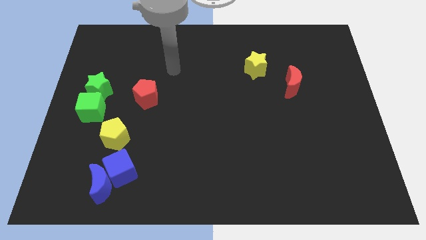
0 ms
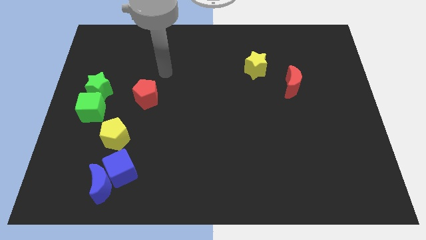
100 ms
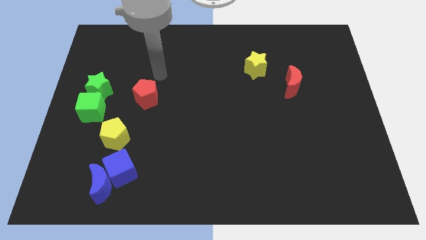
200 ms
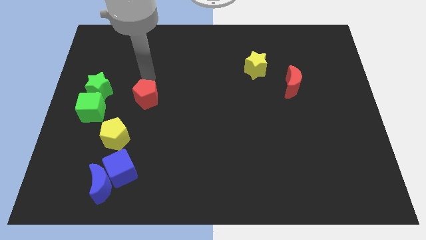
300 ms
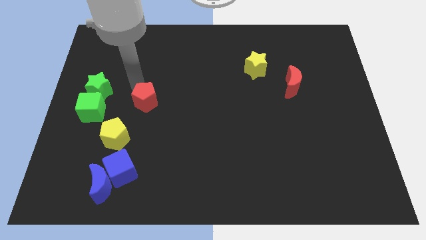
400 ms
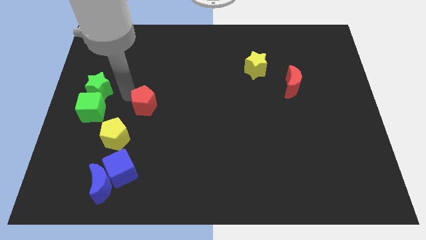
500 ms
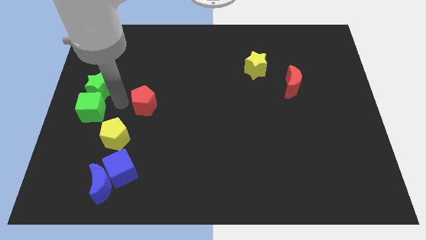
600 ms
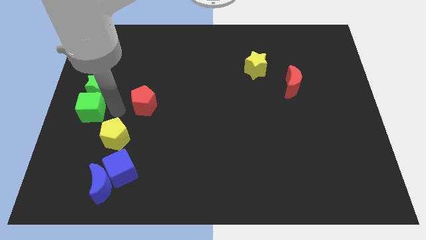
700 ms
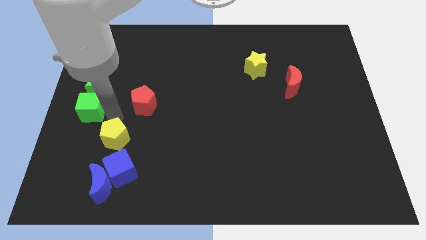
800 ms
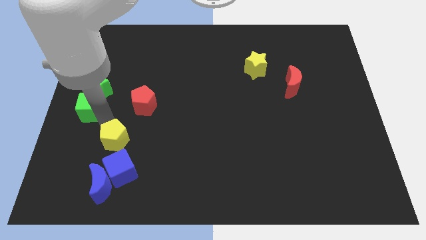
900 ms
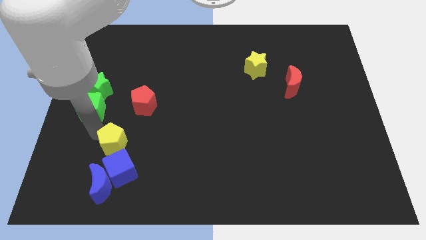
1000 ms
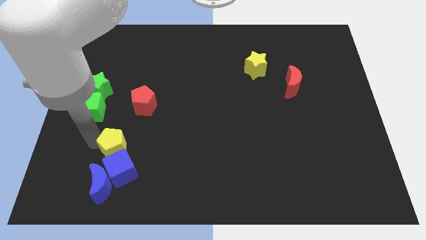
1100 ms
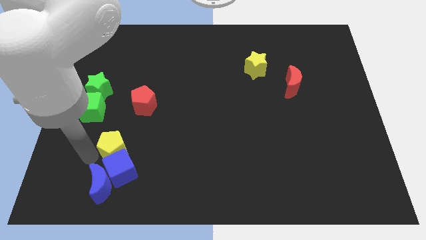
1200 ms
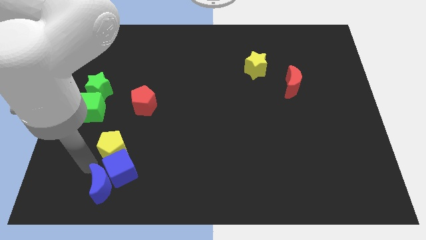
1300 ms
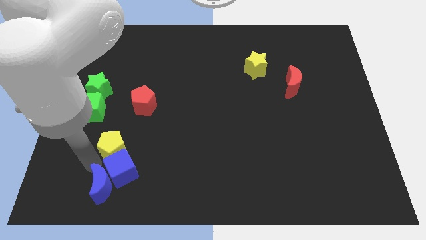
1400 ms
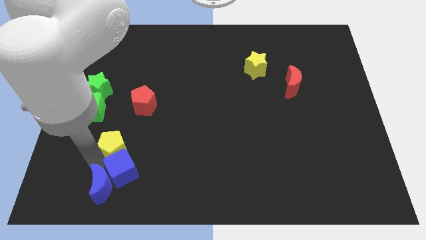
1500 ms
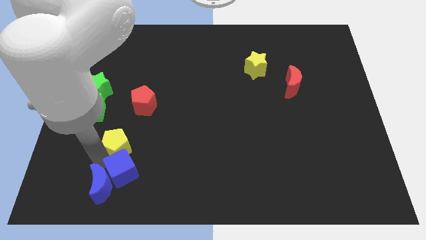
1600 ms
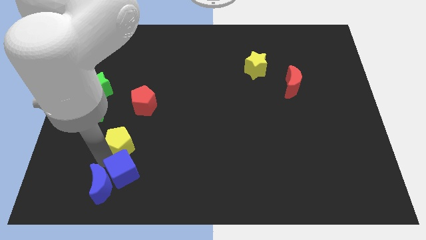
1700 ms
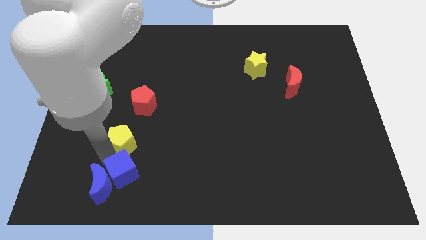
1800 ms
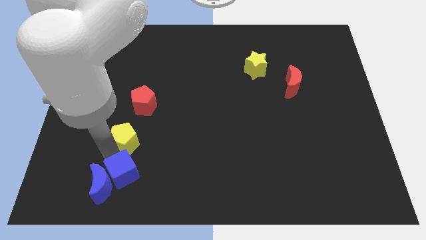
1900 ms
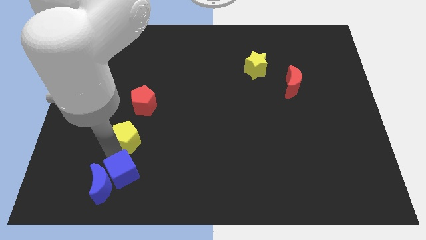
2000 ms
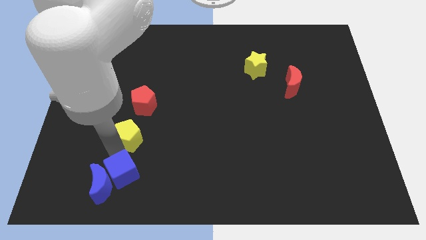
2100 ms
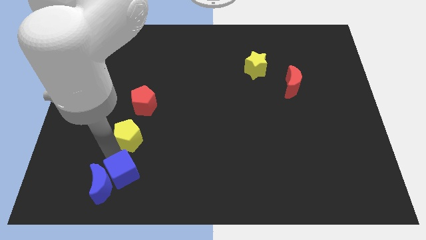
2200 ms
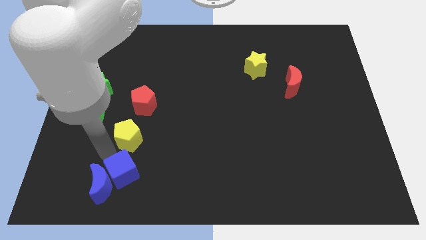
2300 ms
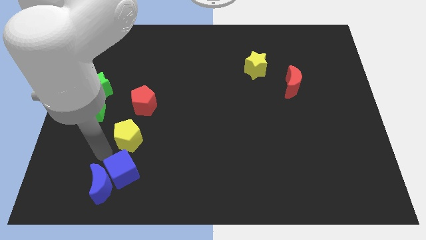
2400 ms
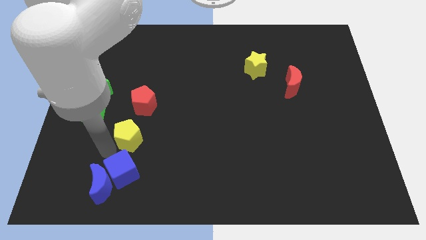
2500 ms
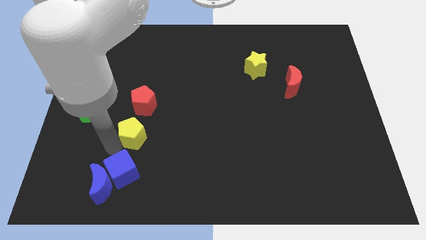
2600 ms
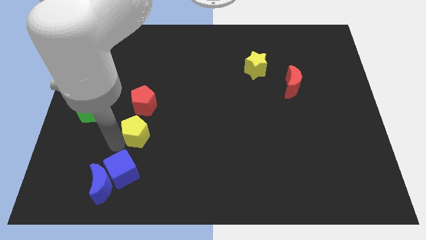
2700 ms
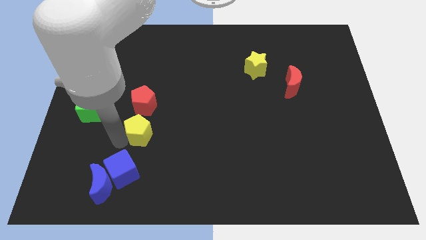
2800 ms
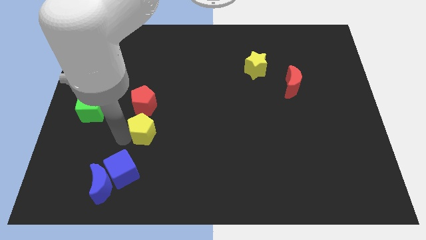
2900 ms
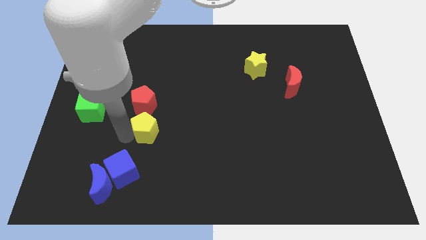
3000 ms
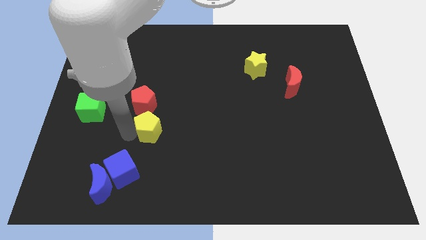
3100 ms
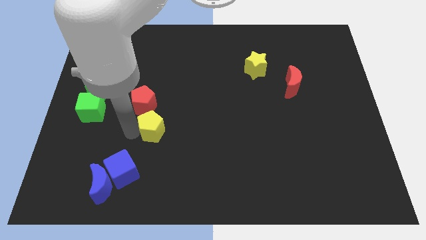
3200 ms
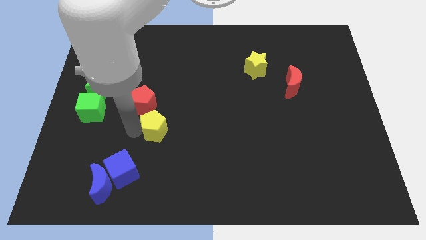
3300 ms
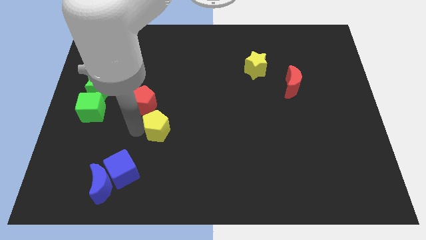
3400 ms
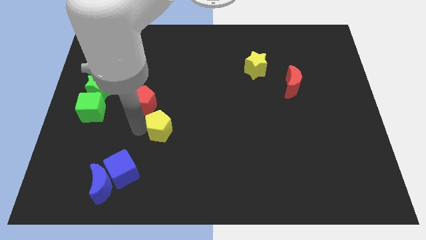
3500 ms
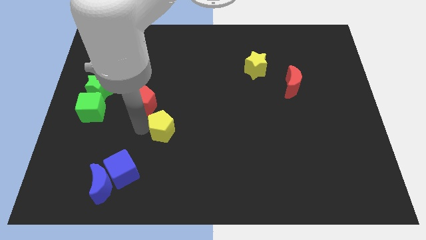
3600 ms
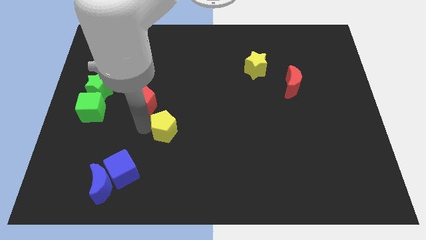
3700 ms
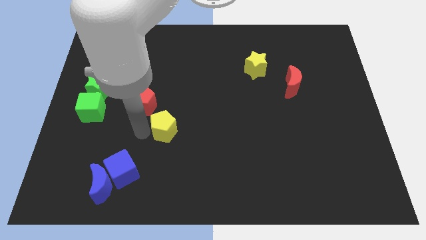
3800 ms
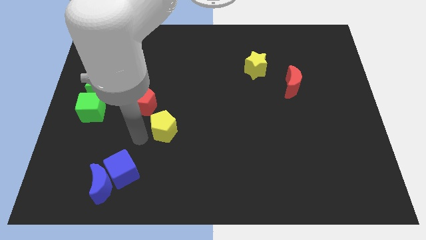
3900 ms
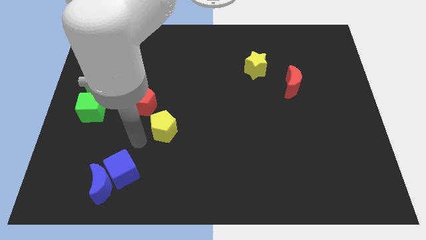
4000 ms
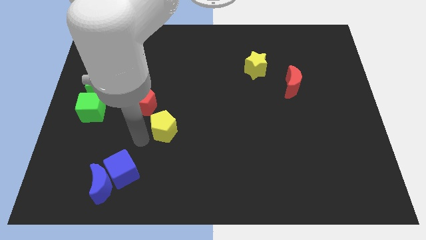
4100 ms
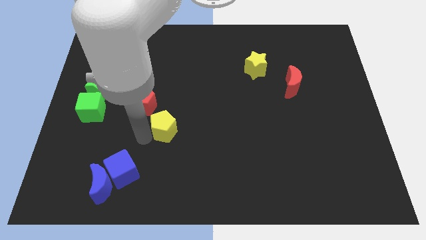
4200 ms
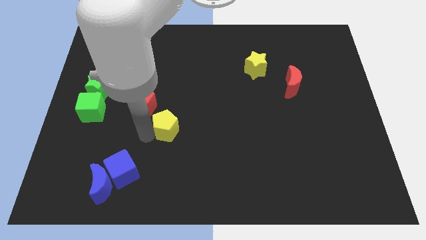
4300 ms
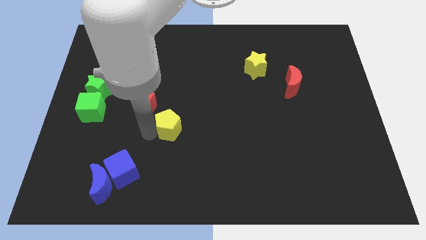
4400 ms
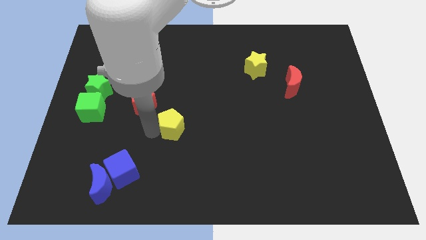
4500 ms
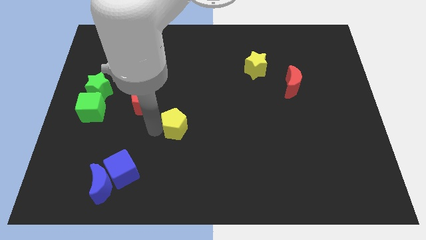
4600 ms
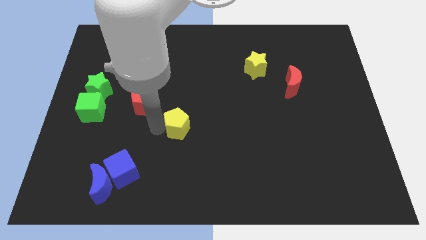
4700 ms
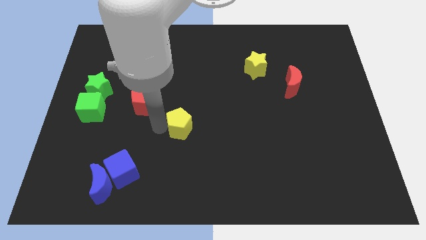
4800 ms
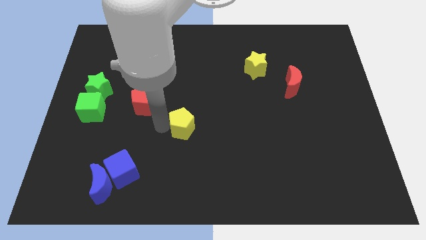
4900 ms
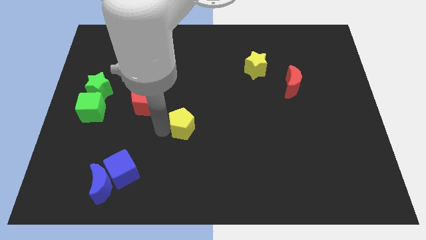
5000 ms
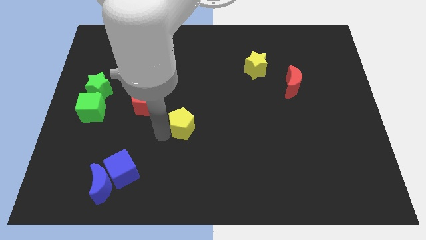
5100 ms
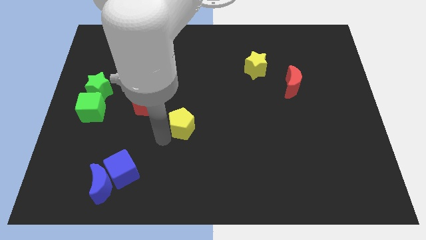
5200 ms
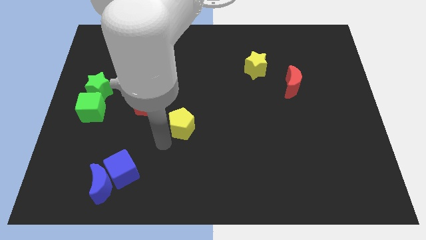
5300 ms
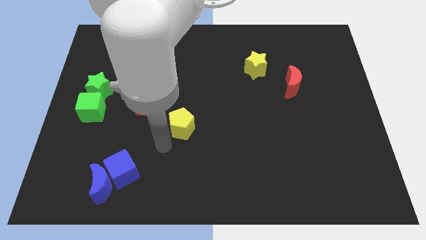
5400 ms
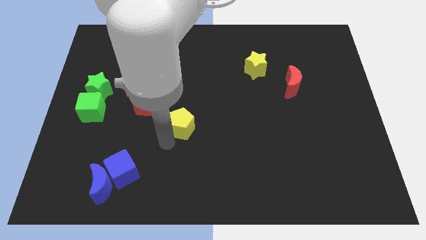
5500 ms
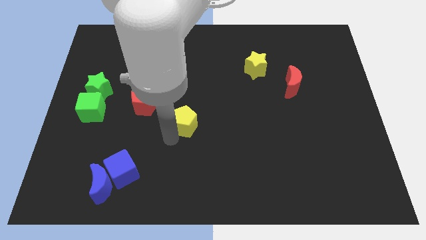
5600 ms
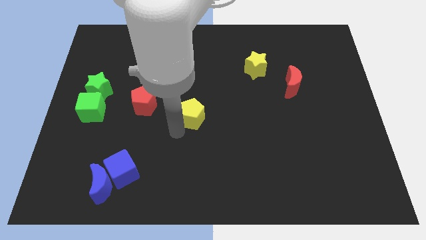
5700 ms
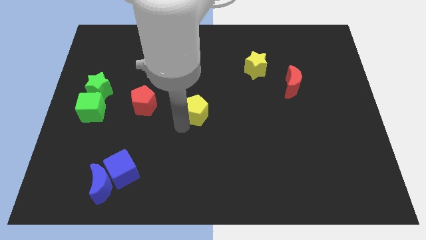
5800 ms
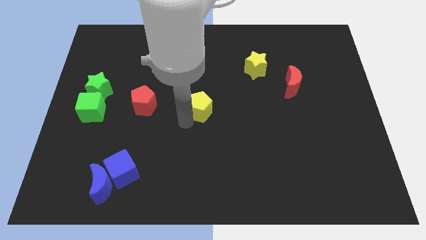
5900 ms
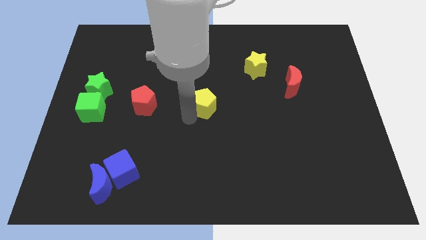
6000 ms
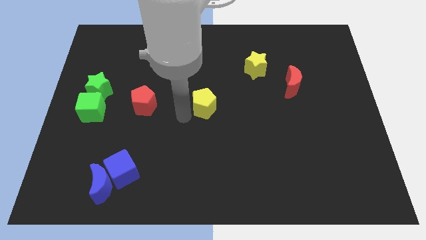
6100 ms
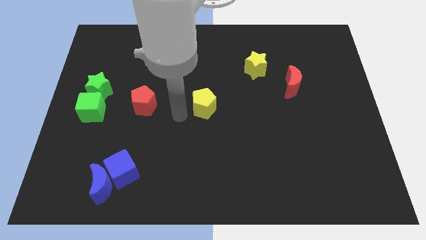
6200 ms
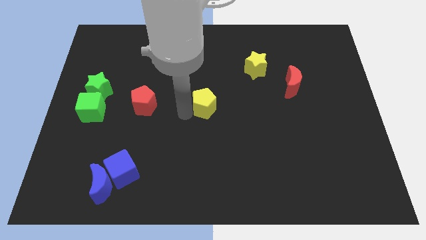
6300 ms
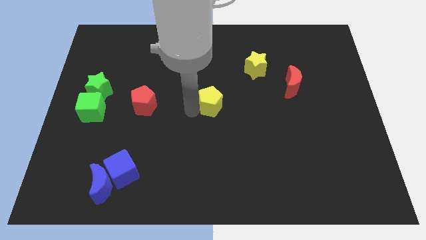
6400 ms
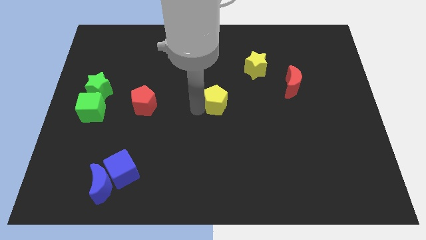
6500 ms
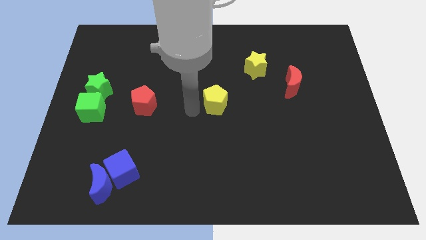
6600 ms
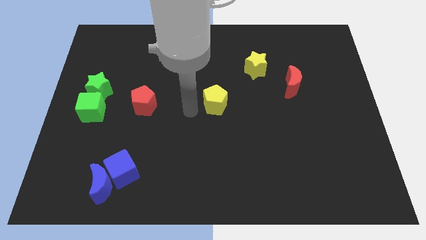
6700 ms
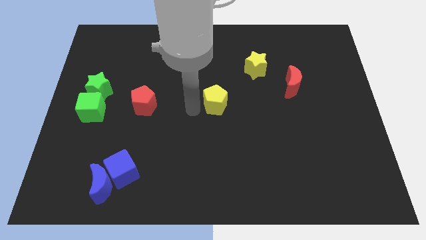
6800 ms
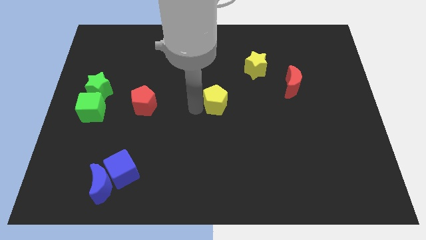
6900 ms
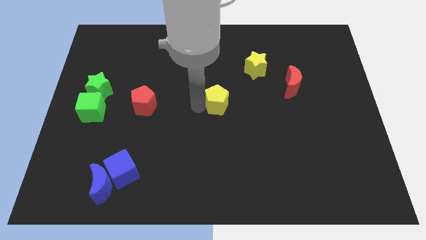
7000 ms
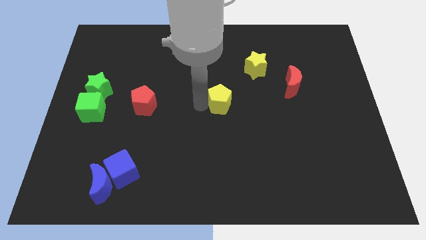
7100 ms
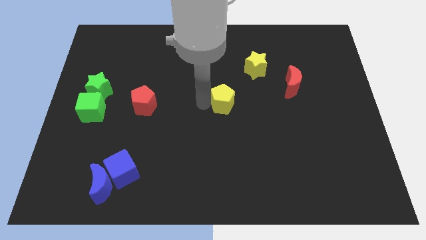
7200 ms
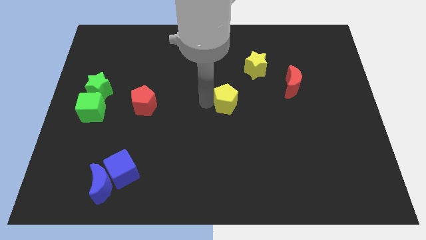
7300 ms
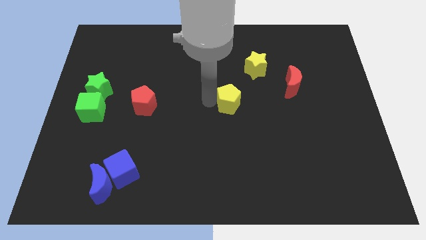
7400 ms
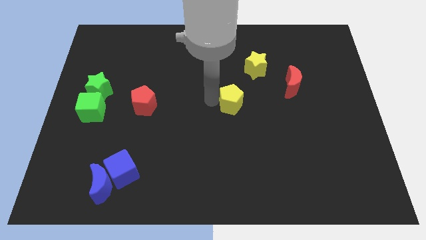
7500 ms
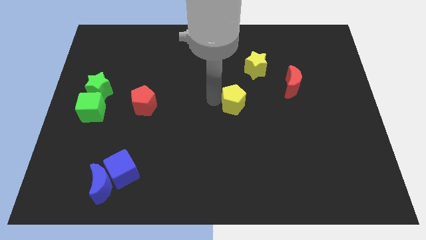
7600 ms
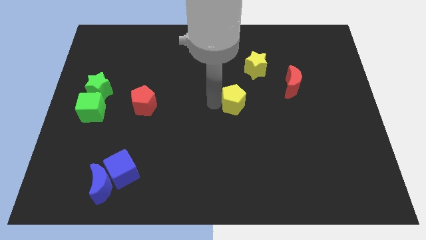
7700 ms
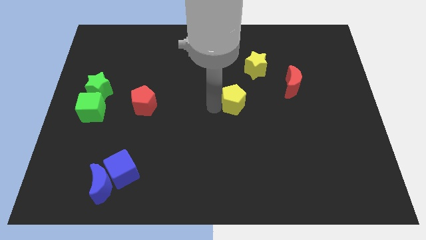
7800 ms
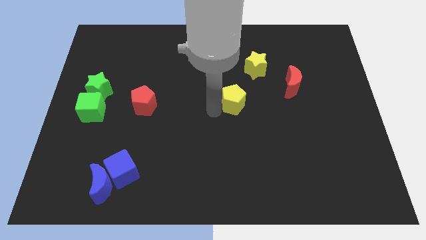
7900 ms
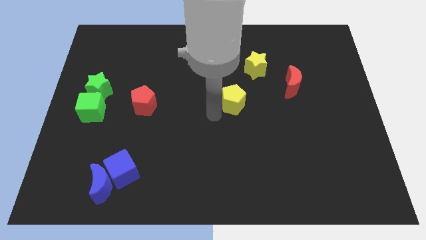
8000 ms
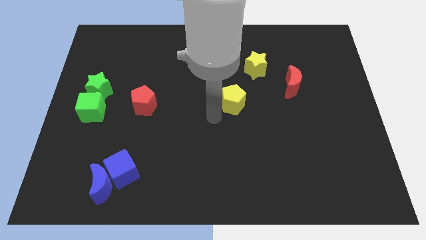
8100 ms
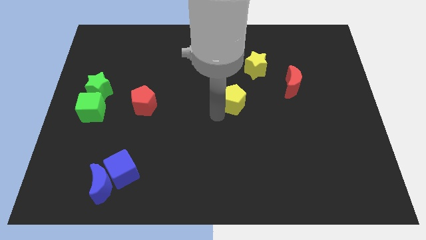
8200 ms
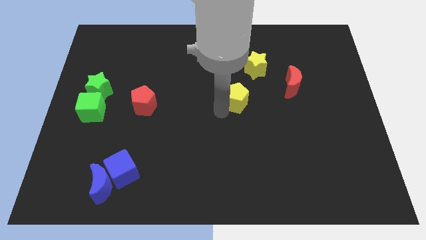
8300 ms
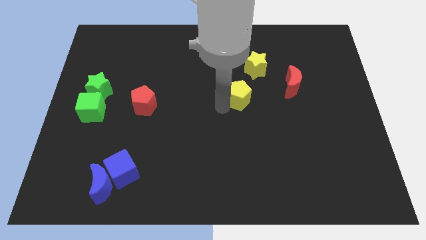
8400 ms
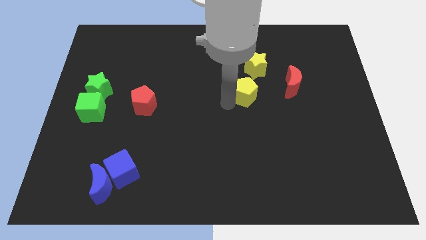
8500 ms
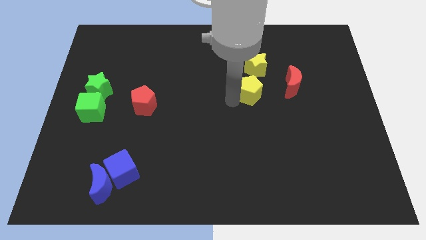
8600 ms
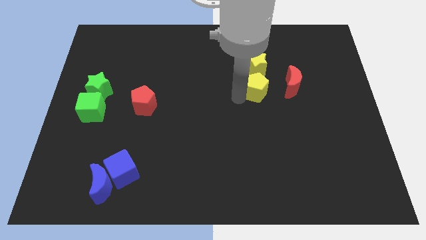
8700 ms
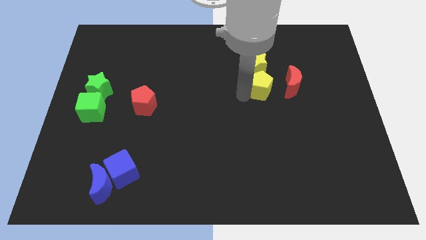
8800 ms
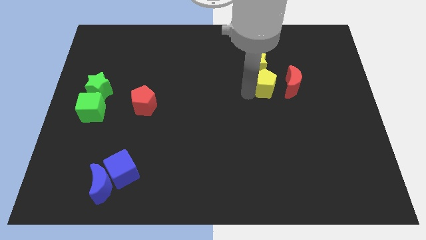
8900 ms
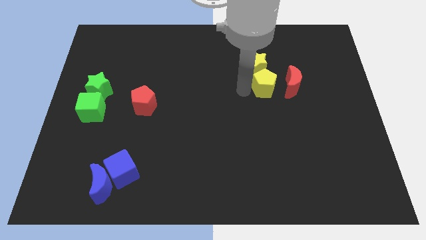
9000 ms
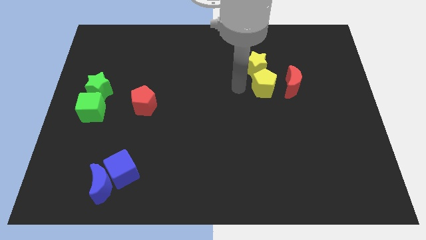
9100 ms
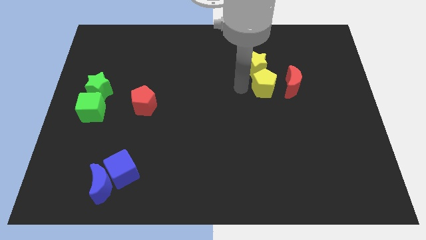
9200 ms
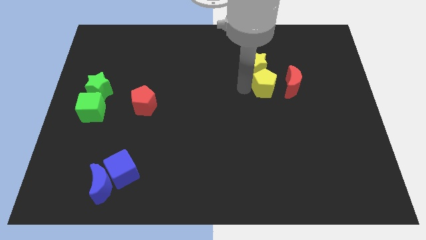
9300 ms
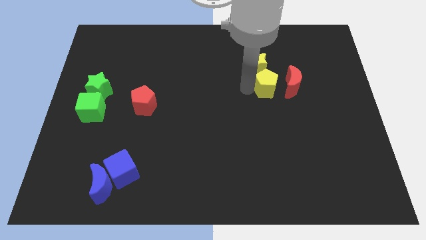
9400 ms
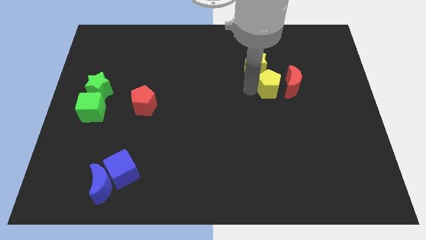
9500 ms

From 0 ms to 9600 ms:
move the yellow pentagon next to the red moon
